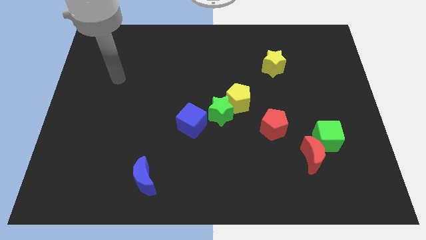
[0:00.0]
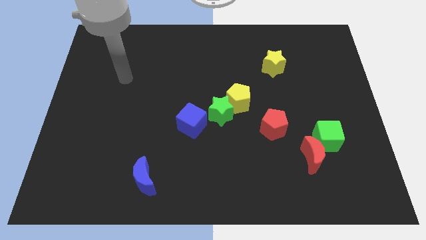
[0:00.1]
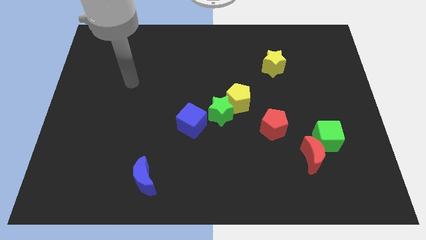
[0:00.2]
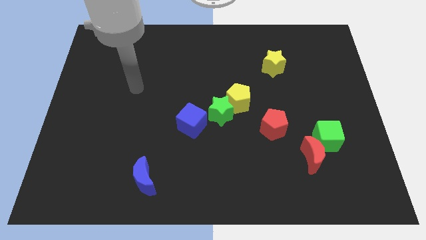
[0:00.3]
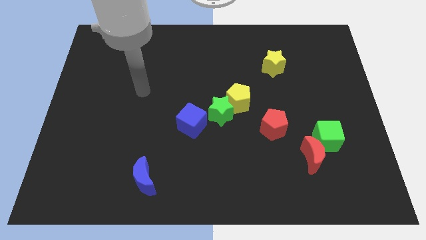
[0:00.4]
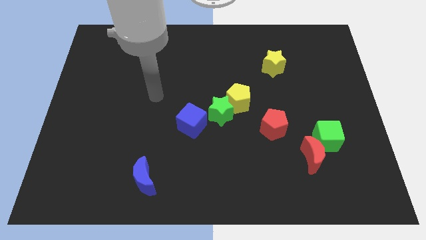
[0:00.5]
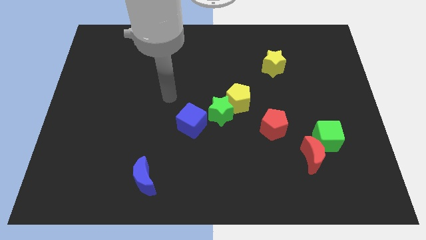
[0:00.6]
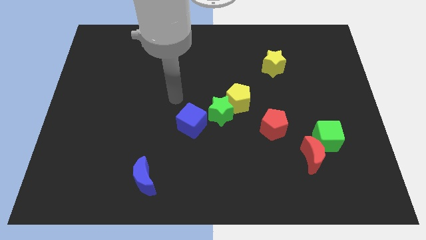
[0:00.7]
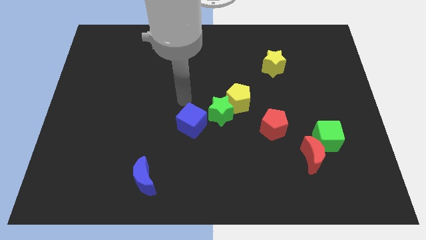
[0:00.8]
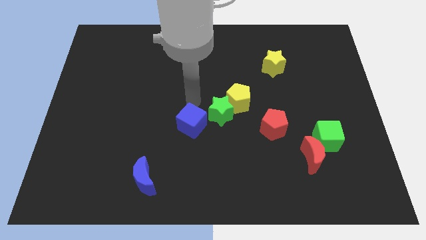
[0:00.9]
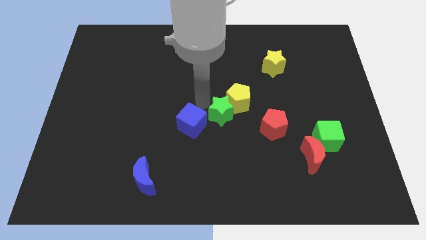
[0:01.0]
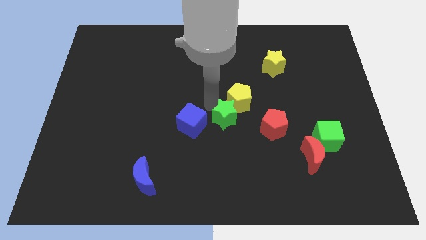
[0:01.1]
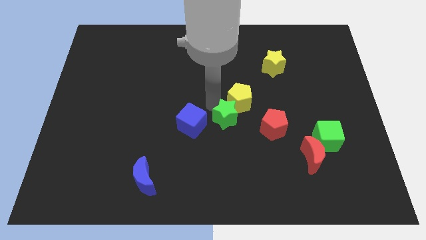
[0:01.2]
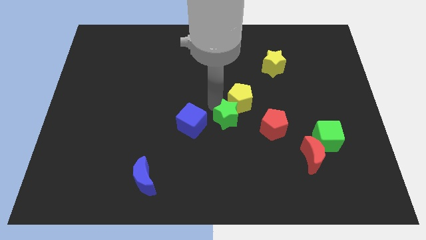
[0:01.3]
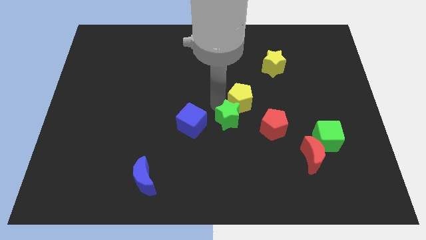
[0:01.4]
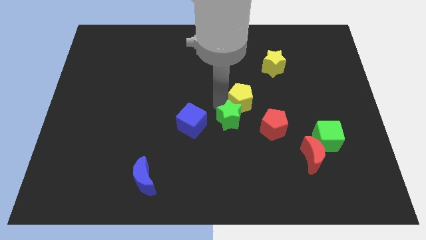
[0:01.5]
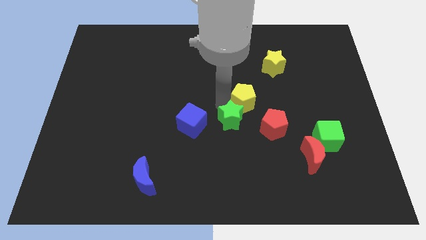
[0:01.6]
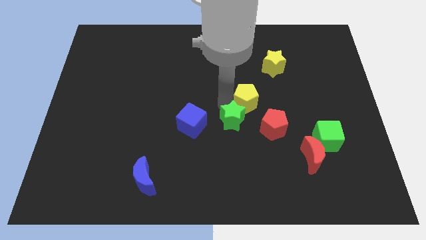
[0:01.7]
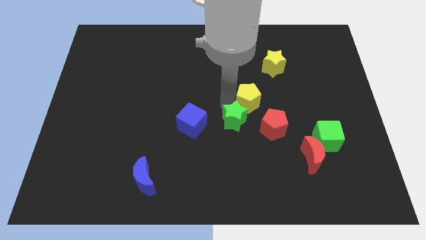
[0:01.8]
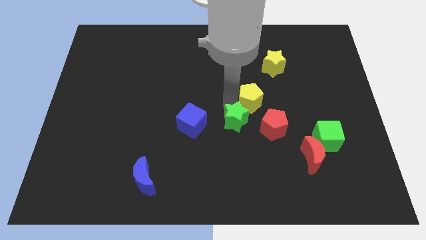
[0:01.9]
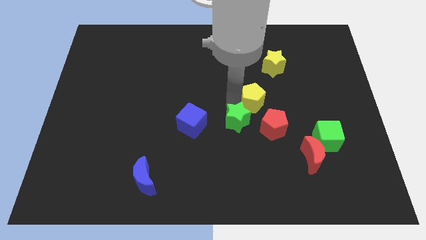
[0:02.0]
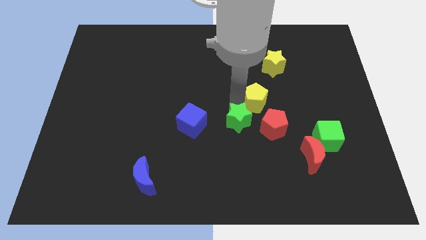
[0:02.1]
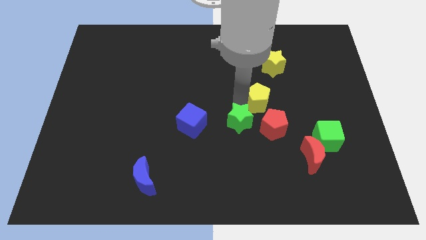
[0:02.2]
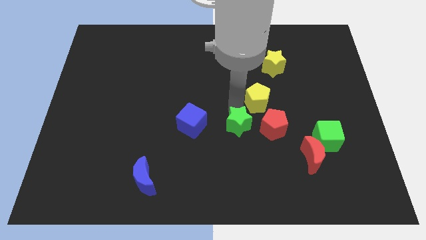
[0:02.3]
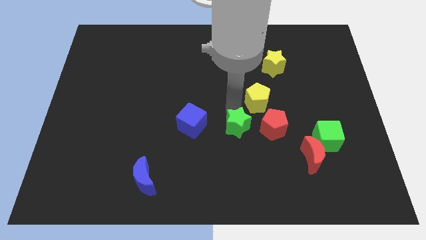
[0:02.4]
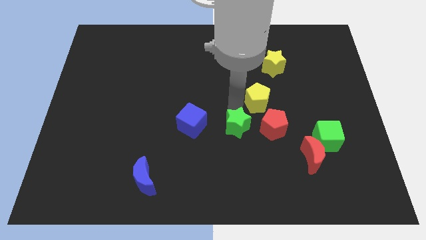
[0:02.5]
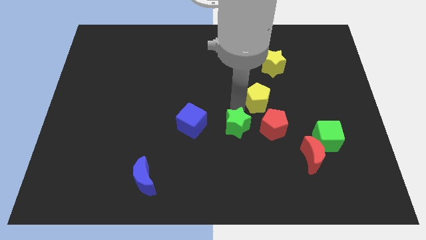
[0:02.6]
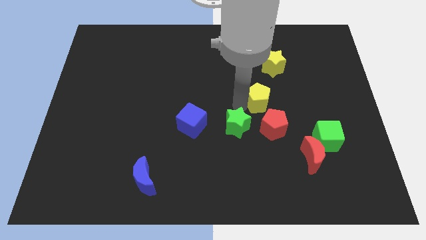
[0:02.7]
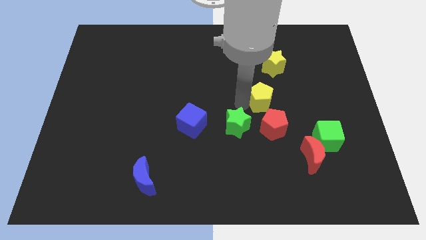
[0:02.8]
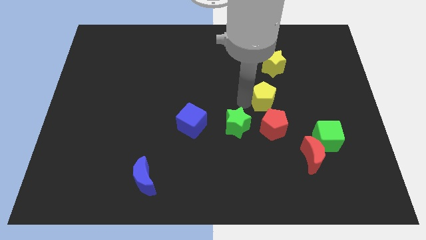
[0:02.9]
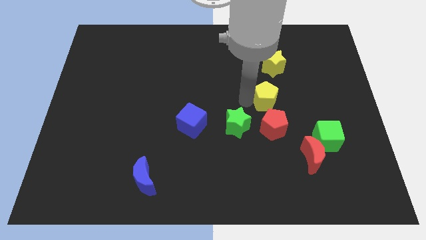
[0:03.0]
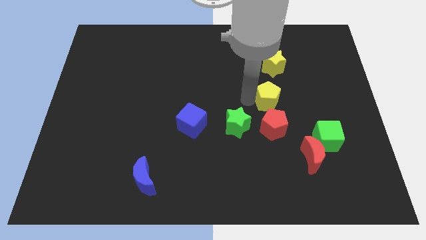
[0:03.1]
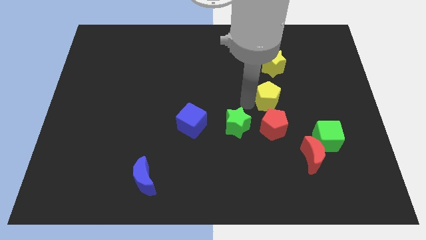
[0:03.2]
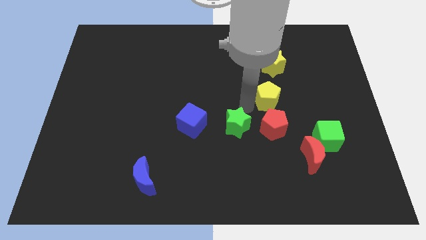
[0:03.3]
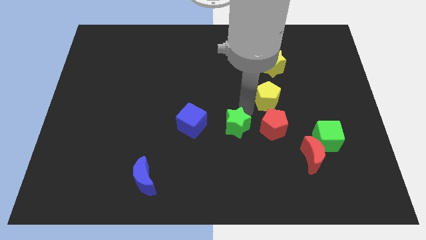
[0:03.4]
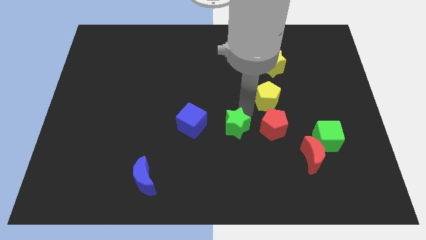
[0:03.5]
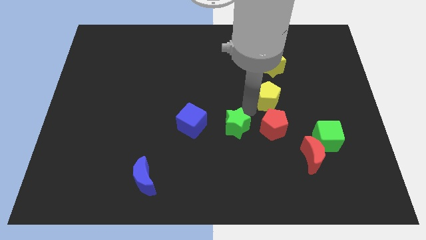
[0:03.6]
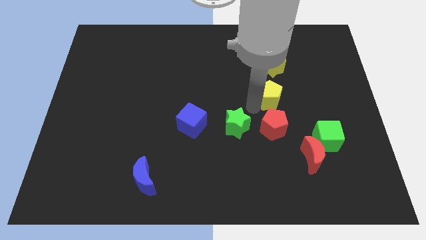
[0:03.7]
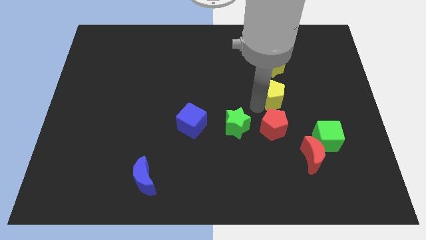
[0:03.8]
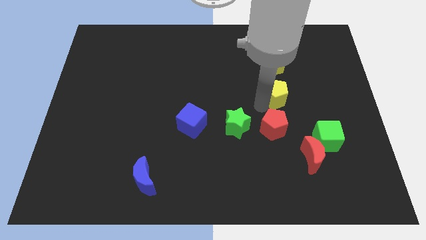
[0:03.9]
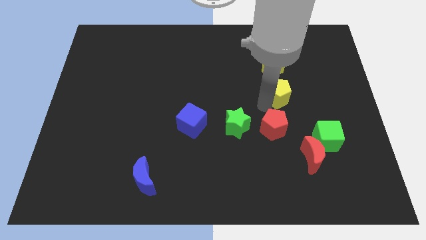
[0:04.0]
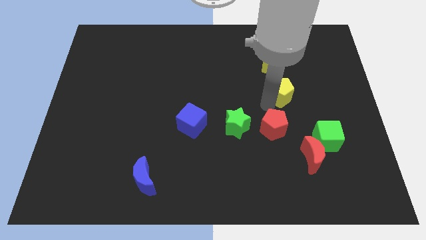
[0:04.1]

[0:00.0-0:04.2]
slide the yellow pentagon up and to the right diagonally a little bit

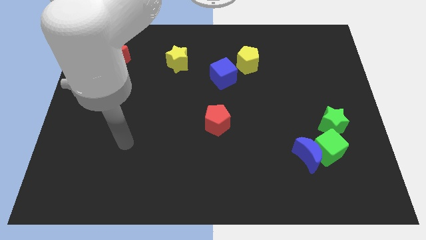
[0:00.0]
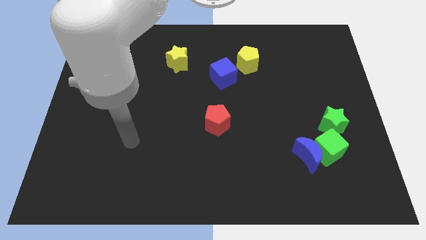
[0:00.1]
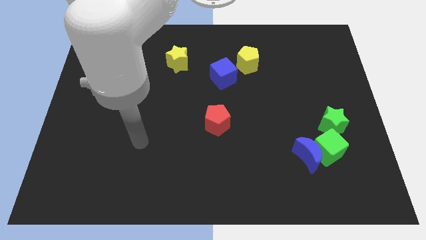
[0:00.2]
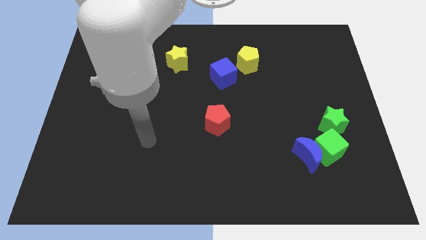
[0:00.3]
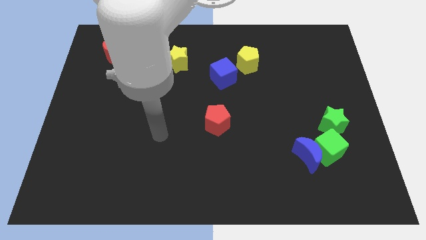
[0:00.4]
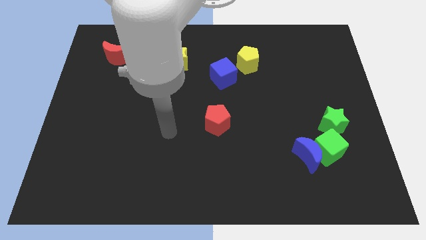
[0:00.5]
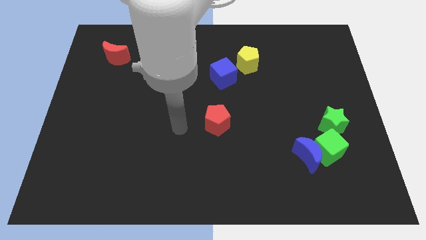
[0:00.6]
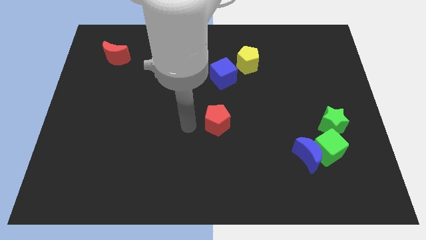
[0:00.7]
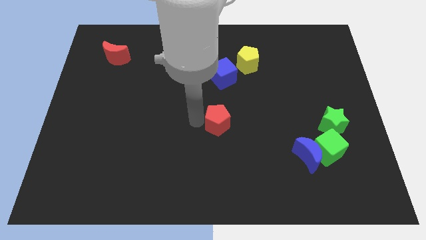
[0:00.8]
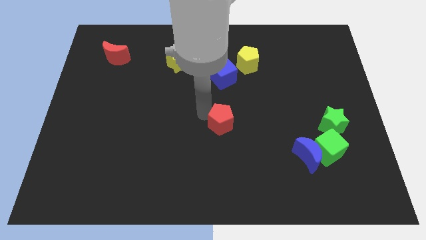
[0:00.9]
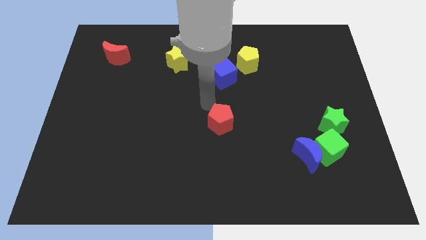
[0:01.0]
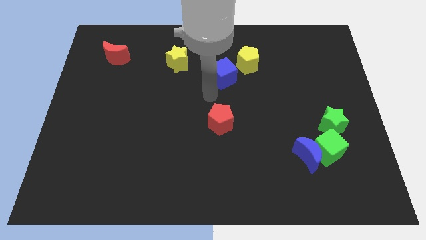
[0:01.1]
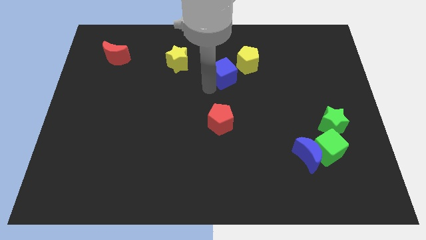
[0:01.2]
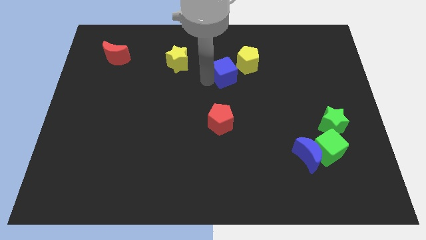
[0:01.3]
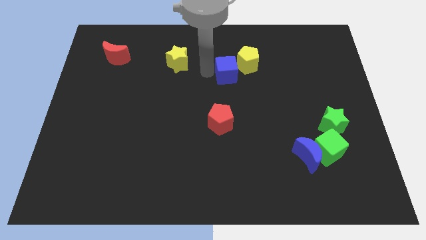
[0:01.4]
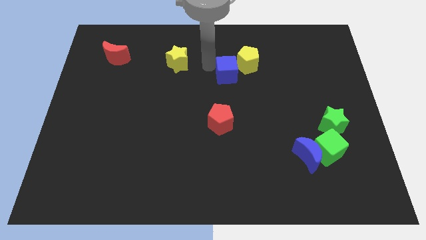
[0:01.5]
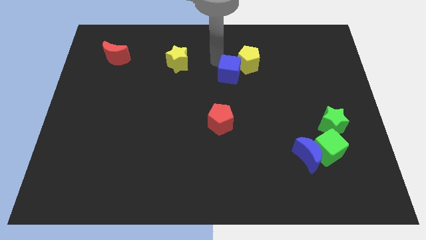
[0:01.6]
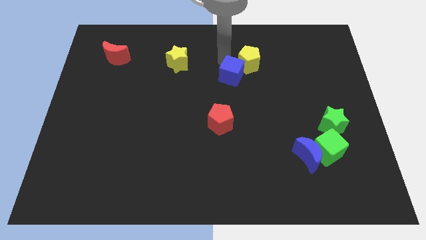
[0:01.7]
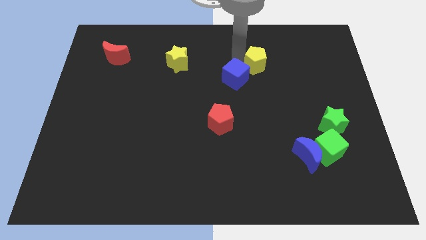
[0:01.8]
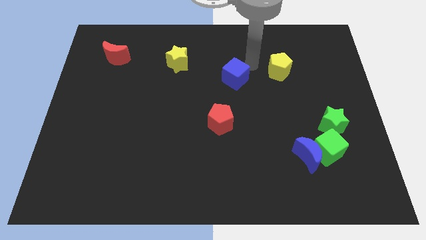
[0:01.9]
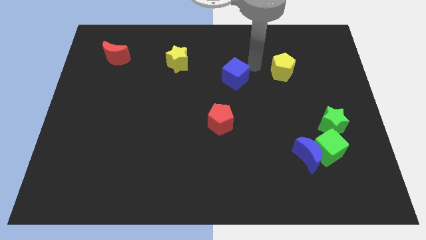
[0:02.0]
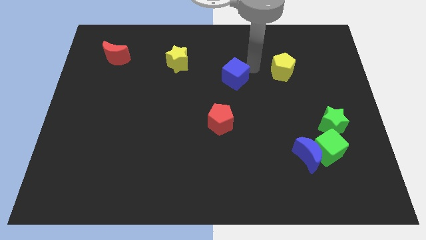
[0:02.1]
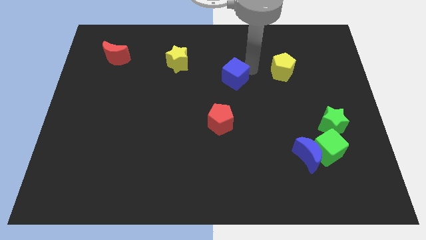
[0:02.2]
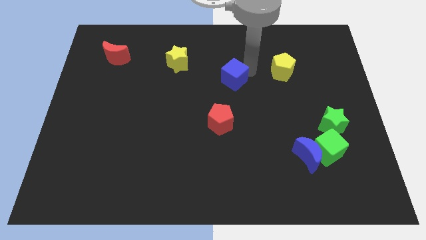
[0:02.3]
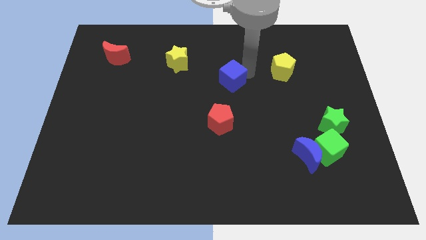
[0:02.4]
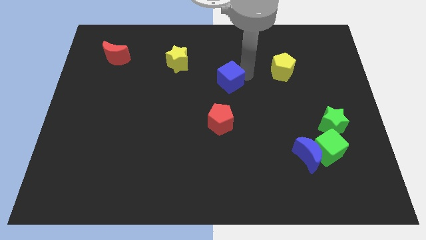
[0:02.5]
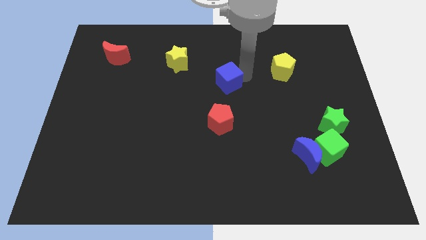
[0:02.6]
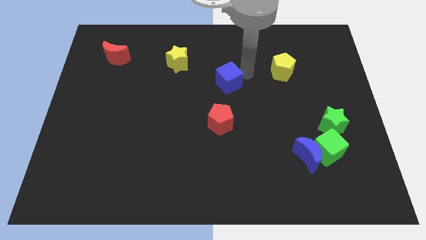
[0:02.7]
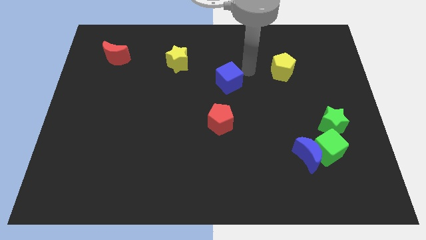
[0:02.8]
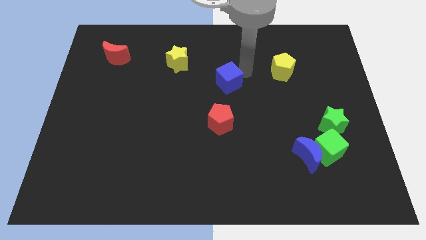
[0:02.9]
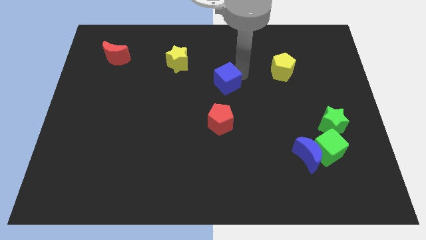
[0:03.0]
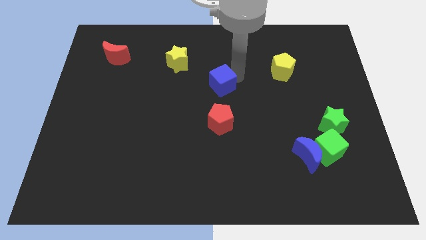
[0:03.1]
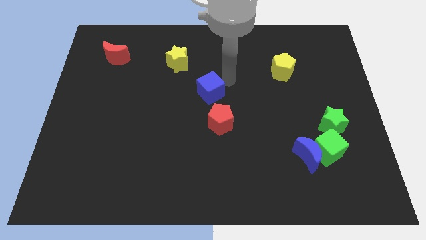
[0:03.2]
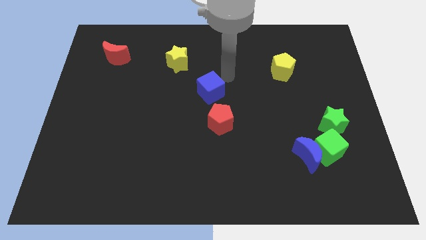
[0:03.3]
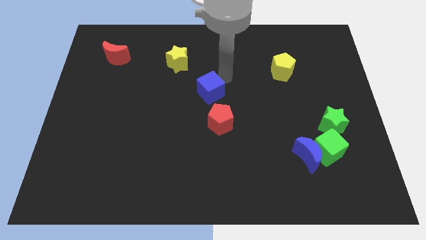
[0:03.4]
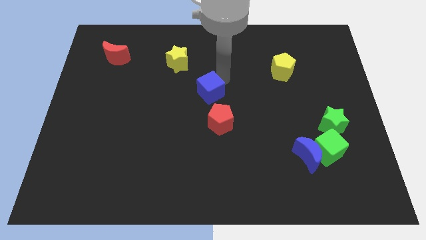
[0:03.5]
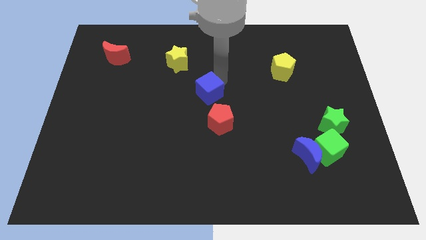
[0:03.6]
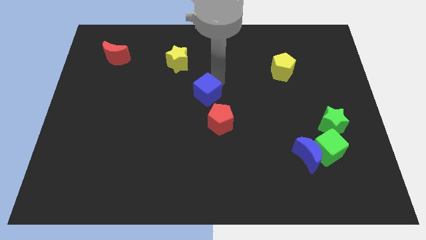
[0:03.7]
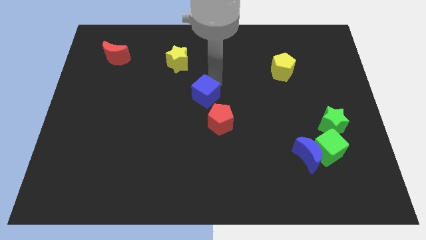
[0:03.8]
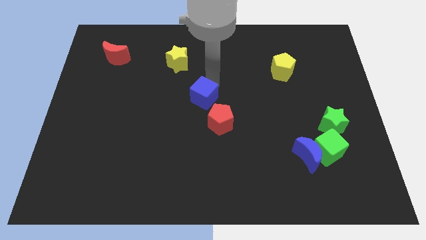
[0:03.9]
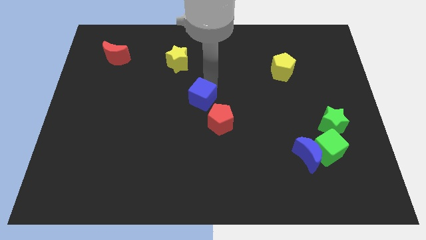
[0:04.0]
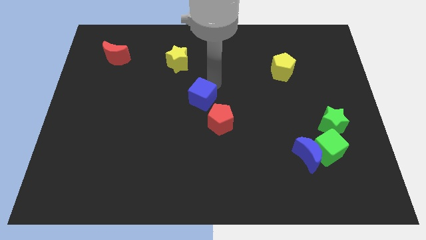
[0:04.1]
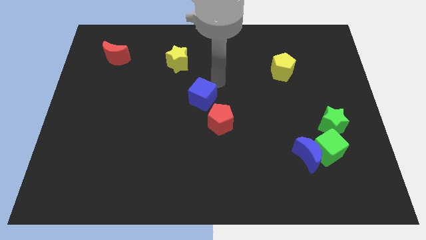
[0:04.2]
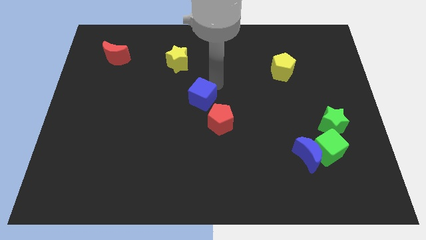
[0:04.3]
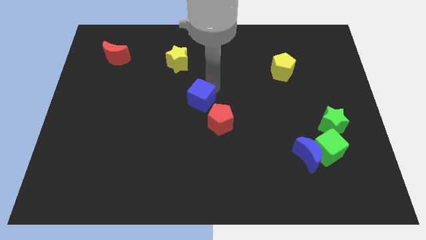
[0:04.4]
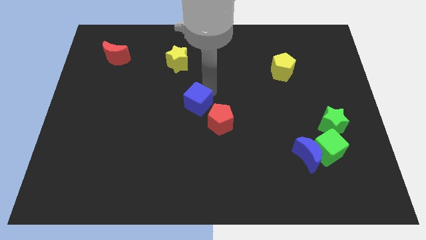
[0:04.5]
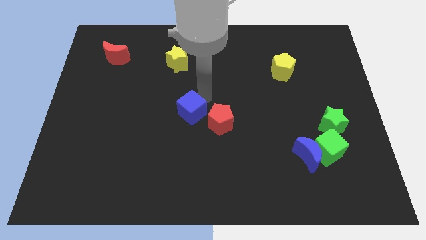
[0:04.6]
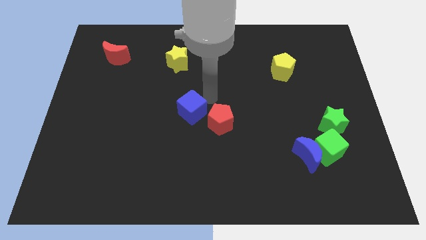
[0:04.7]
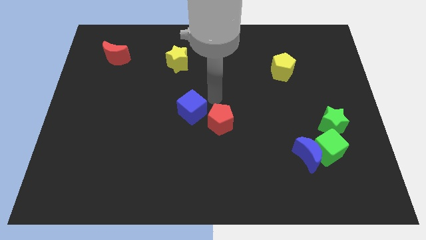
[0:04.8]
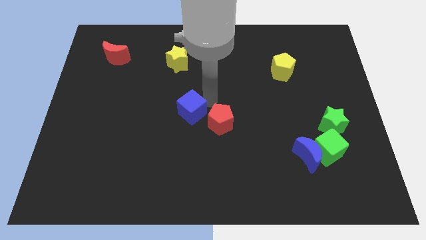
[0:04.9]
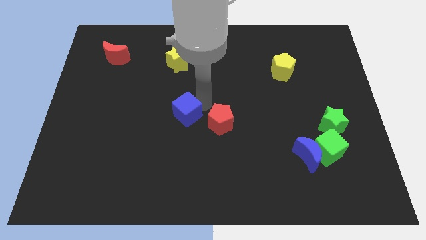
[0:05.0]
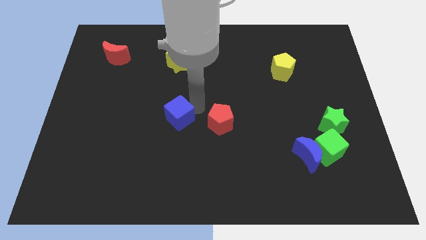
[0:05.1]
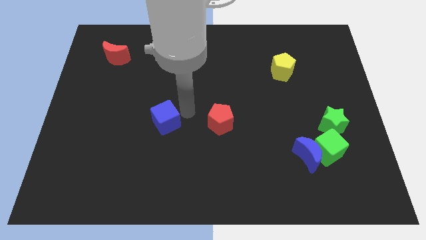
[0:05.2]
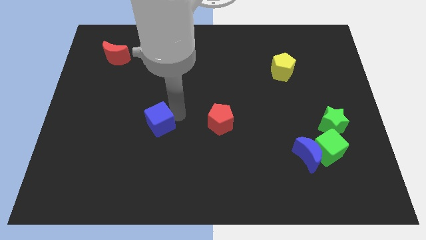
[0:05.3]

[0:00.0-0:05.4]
slide the blue cube diagonally downwards and to the left
